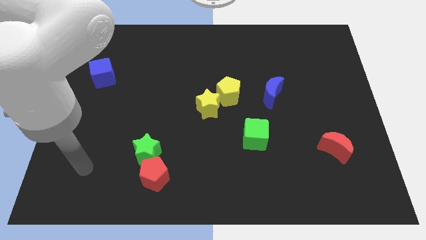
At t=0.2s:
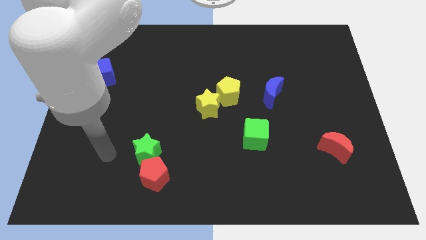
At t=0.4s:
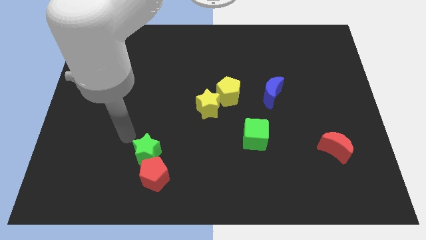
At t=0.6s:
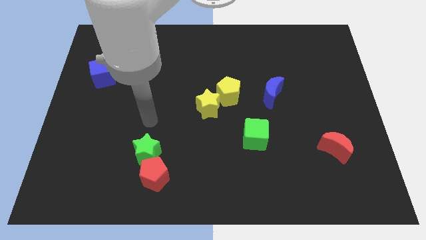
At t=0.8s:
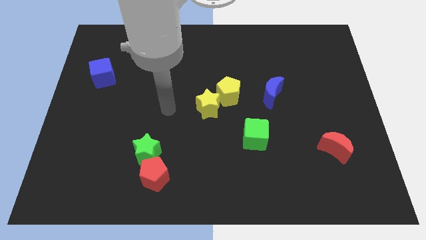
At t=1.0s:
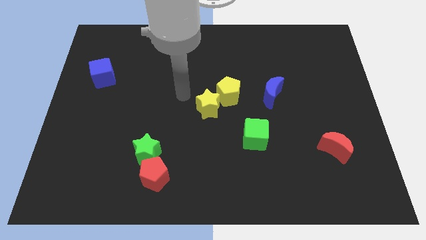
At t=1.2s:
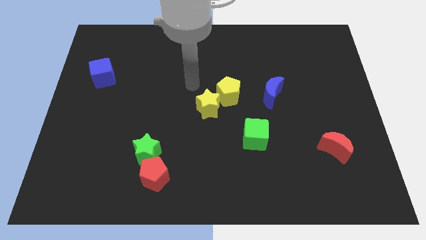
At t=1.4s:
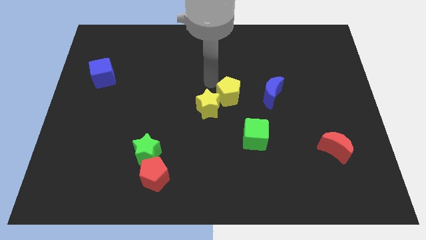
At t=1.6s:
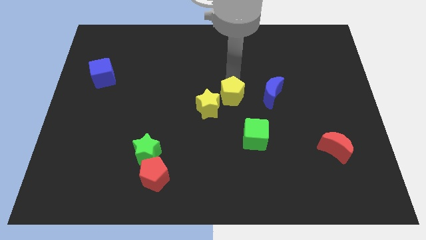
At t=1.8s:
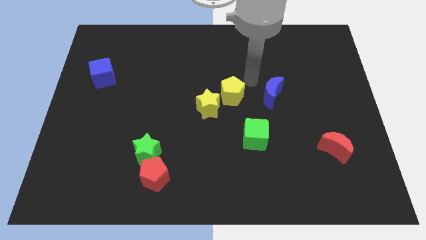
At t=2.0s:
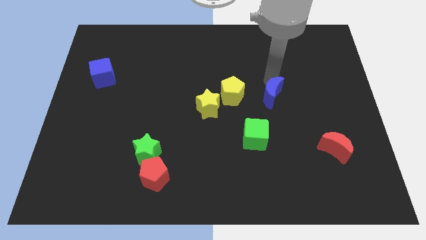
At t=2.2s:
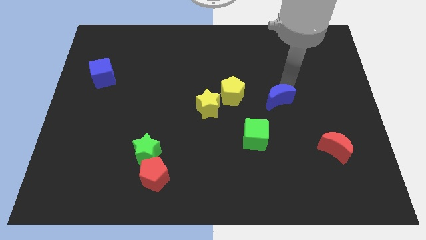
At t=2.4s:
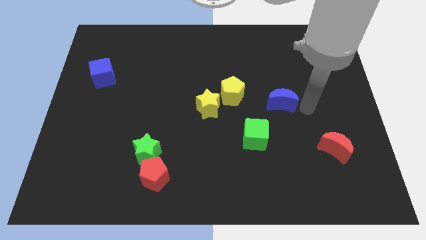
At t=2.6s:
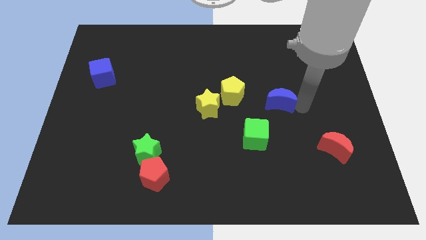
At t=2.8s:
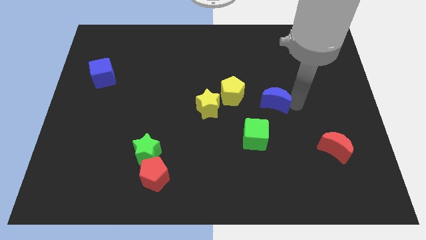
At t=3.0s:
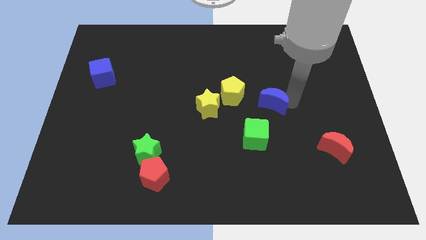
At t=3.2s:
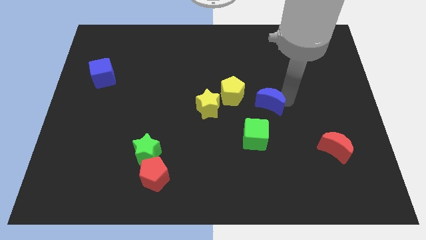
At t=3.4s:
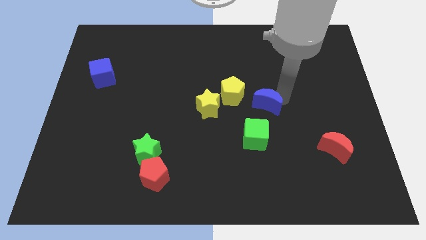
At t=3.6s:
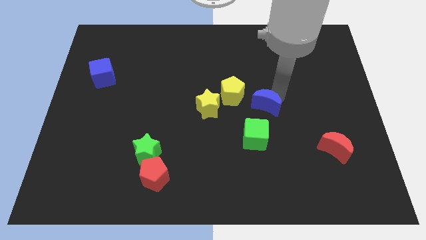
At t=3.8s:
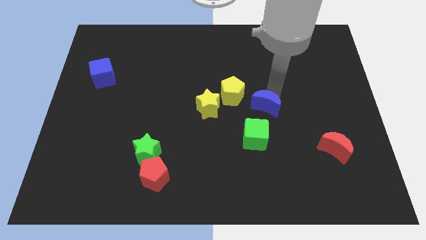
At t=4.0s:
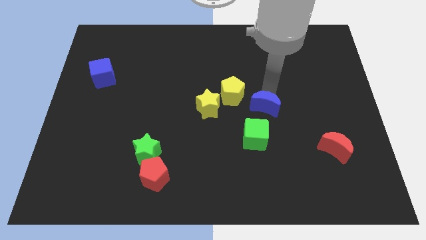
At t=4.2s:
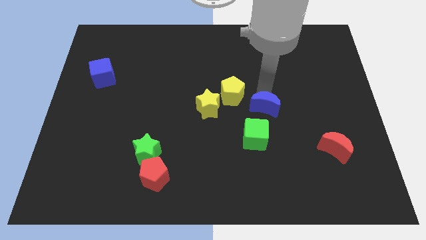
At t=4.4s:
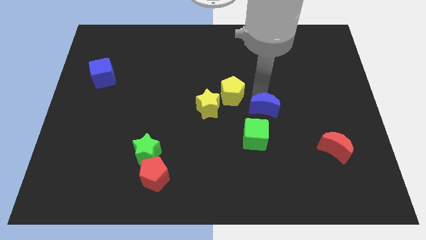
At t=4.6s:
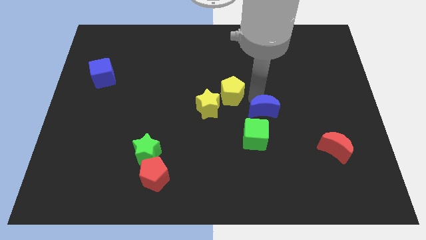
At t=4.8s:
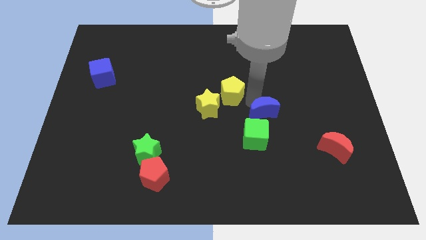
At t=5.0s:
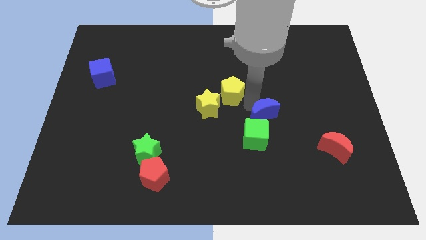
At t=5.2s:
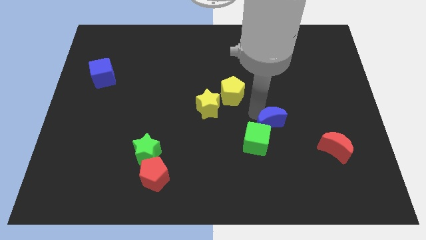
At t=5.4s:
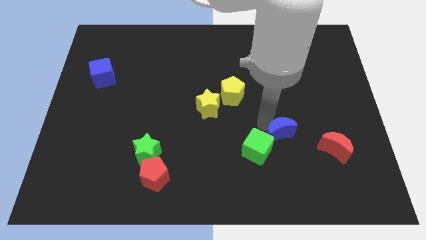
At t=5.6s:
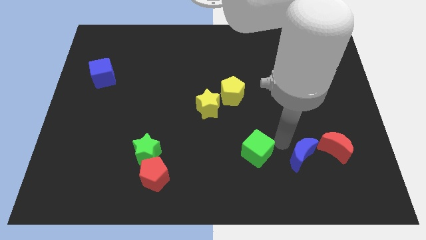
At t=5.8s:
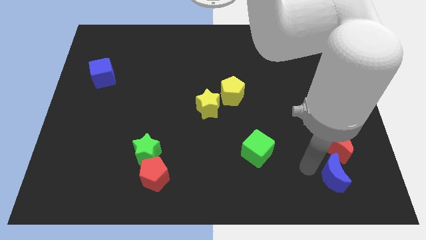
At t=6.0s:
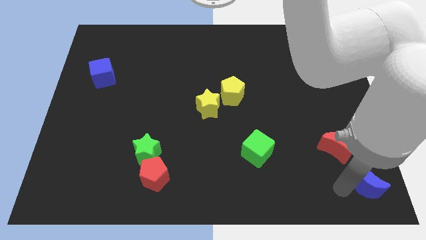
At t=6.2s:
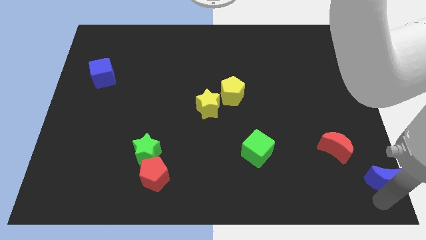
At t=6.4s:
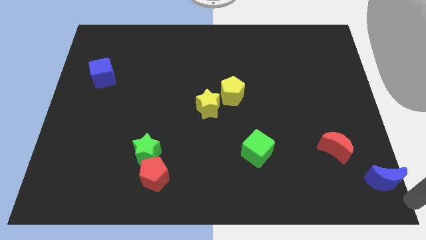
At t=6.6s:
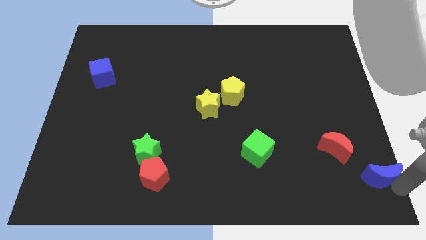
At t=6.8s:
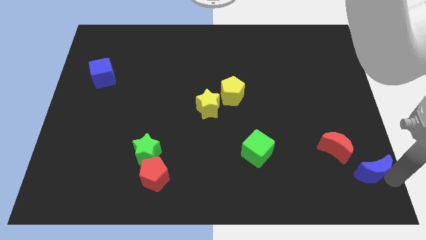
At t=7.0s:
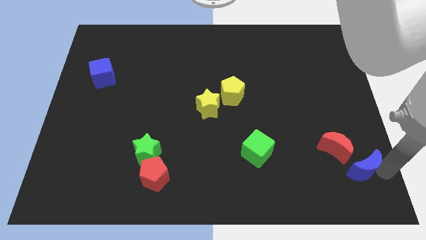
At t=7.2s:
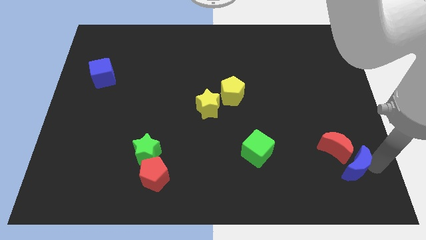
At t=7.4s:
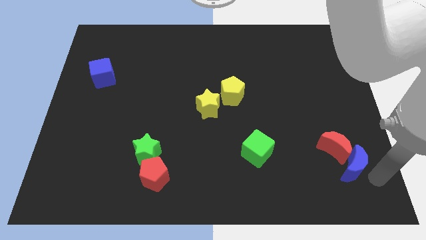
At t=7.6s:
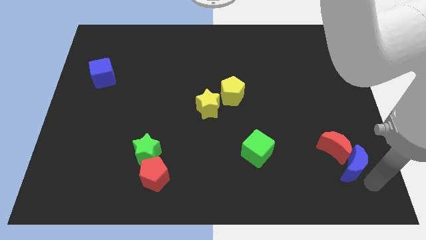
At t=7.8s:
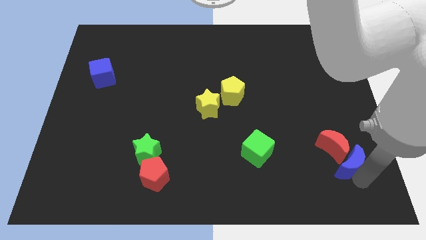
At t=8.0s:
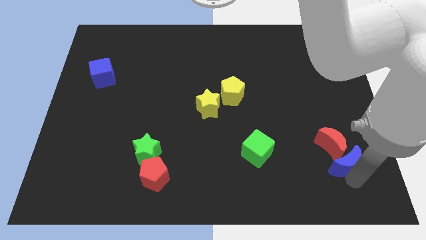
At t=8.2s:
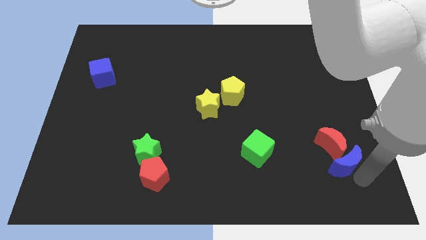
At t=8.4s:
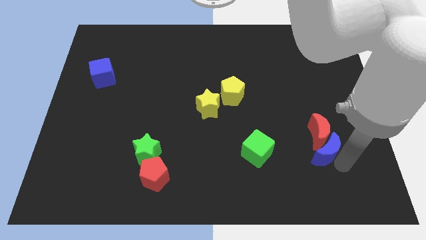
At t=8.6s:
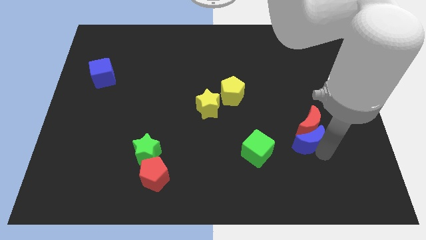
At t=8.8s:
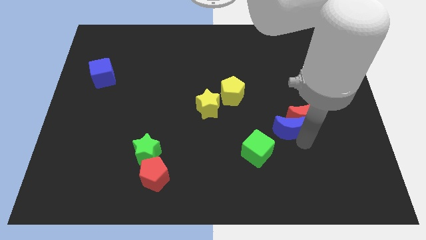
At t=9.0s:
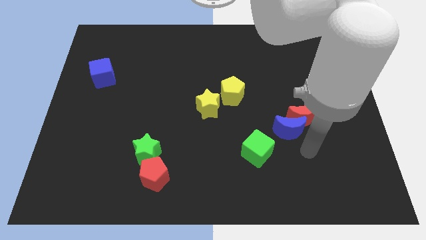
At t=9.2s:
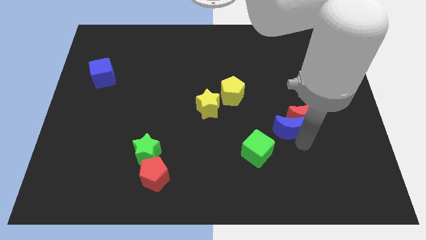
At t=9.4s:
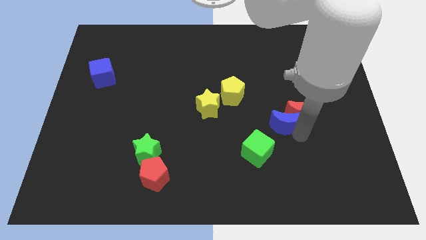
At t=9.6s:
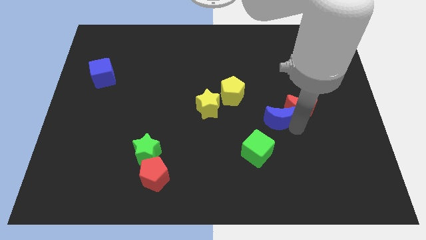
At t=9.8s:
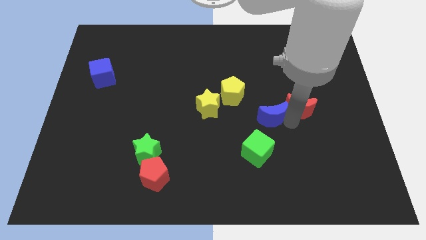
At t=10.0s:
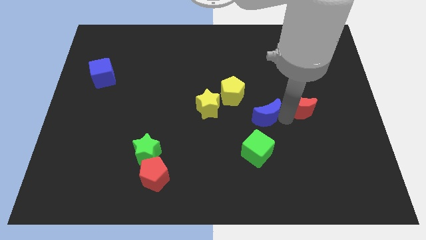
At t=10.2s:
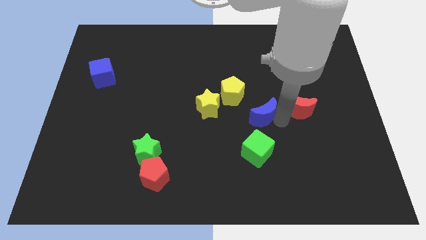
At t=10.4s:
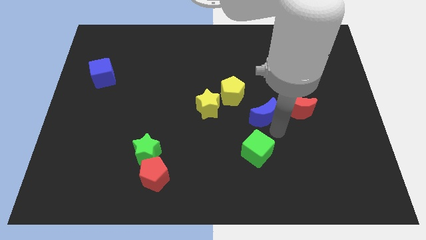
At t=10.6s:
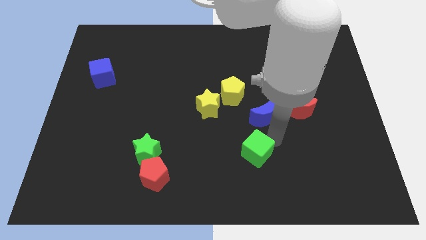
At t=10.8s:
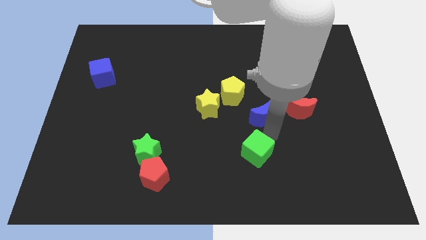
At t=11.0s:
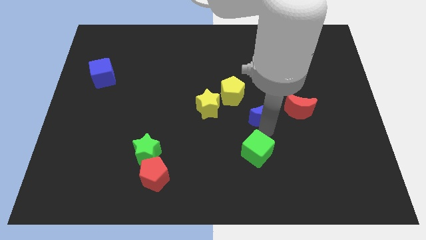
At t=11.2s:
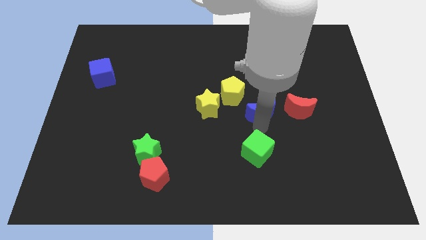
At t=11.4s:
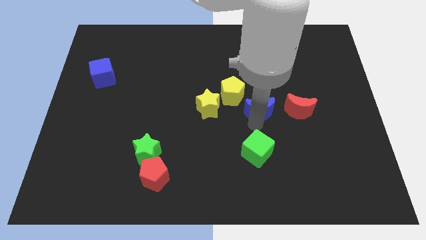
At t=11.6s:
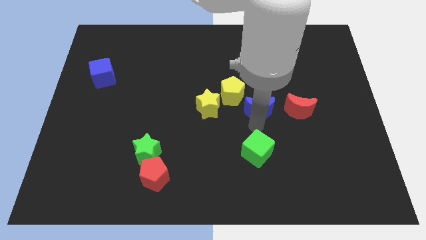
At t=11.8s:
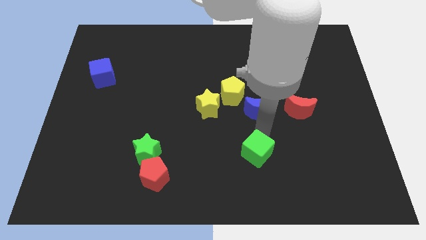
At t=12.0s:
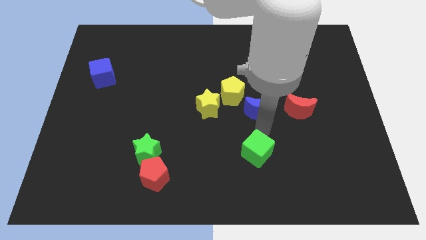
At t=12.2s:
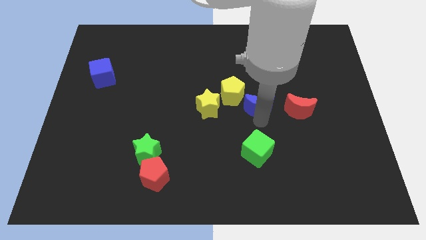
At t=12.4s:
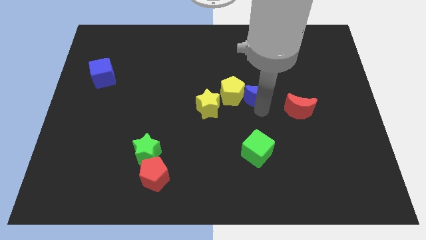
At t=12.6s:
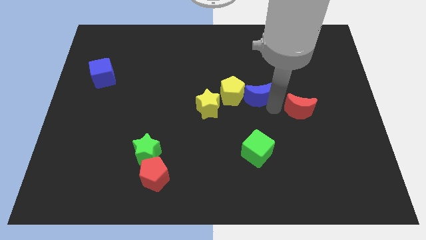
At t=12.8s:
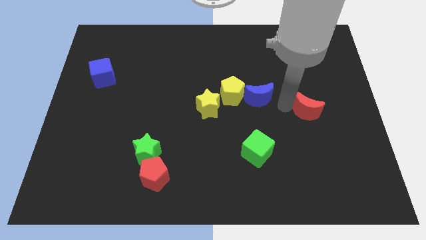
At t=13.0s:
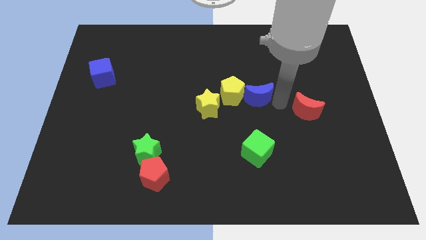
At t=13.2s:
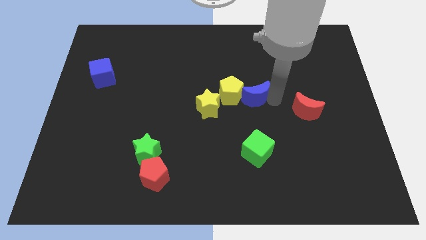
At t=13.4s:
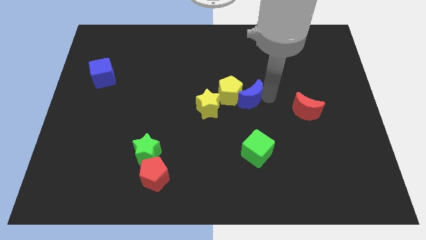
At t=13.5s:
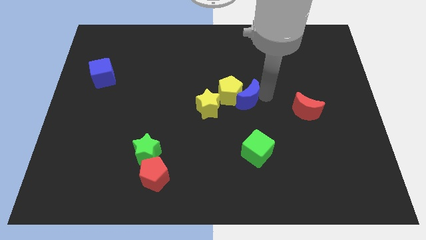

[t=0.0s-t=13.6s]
put the blue moon diagonally up and to the right of the yellow star
